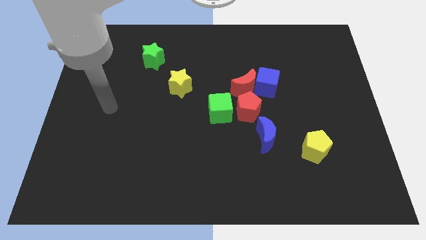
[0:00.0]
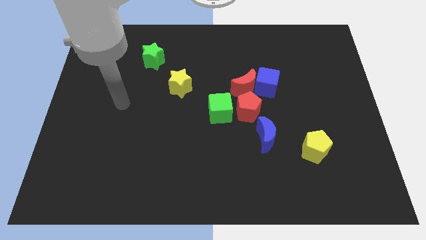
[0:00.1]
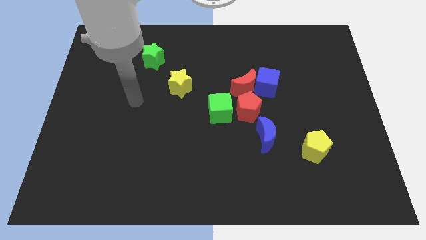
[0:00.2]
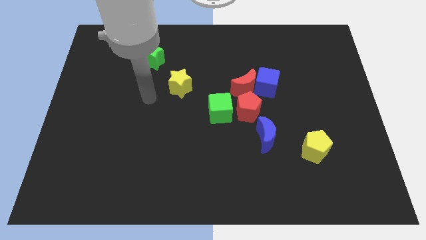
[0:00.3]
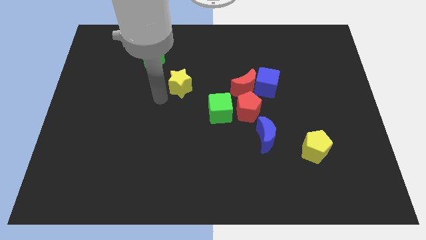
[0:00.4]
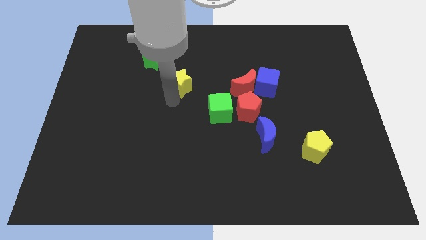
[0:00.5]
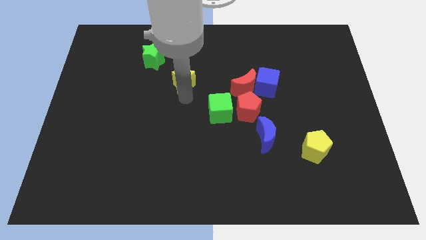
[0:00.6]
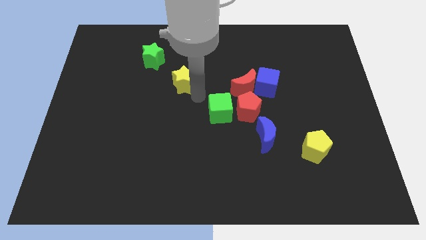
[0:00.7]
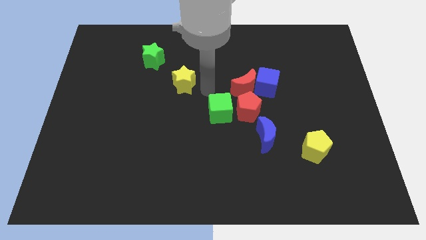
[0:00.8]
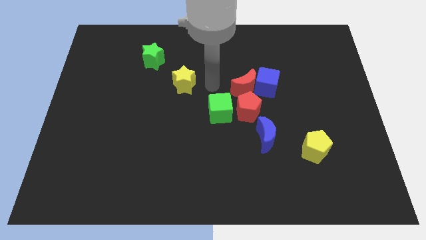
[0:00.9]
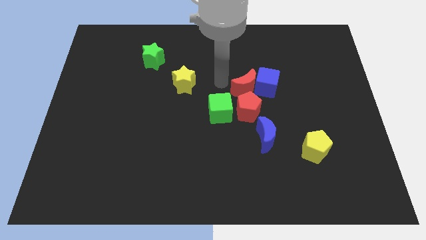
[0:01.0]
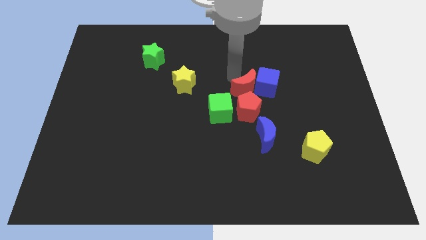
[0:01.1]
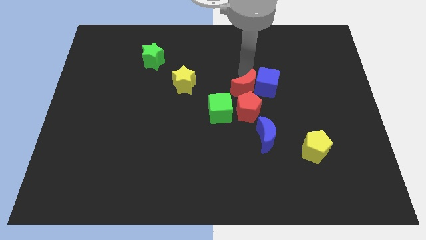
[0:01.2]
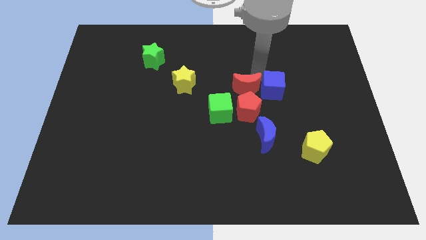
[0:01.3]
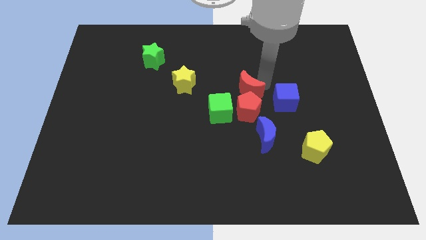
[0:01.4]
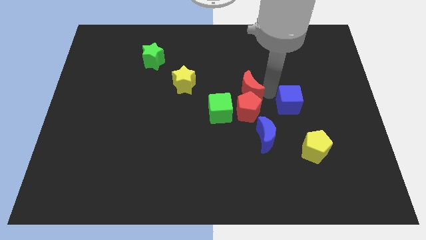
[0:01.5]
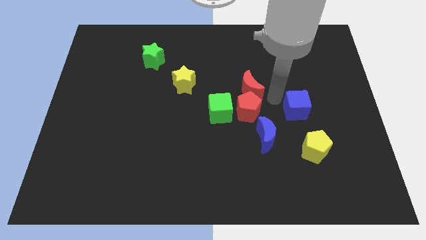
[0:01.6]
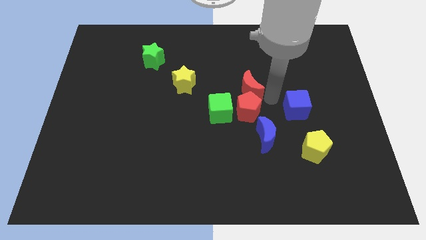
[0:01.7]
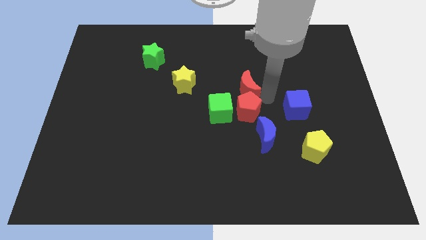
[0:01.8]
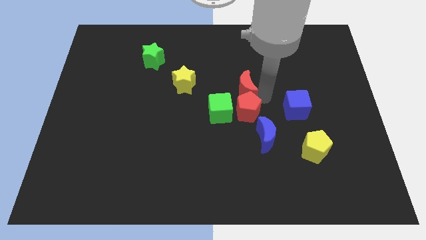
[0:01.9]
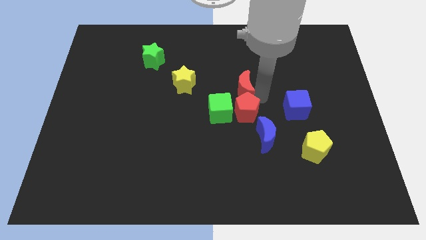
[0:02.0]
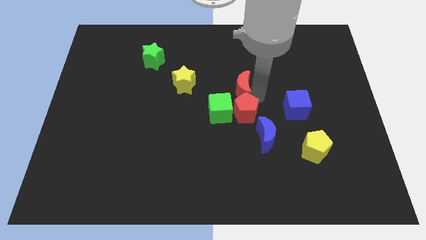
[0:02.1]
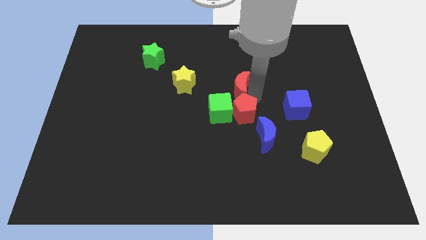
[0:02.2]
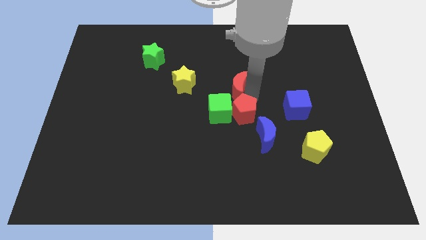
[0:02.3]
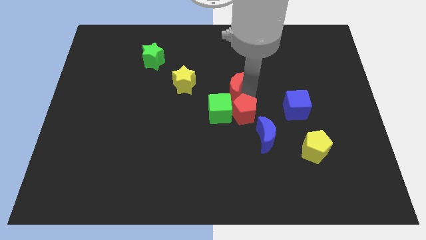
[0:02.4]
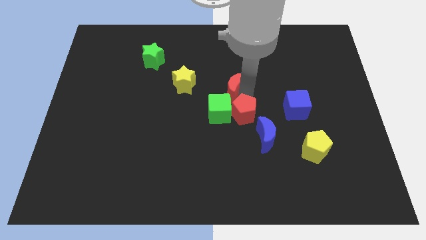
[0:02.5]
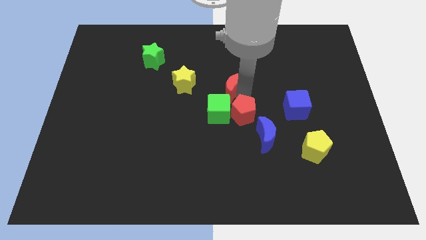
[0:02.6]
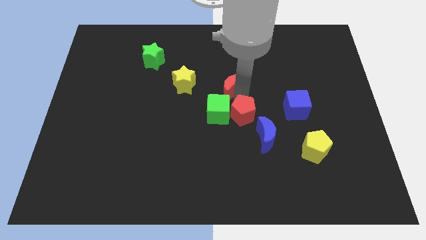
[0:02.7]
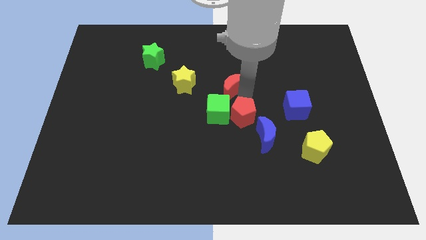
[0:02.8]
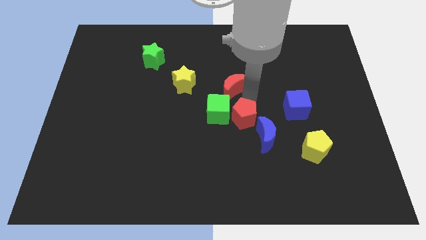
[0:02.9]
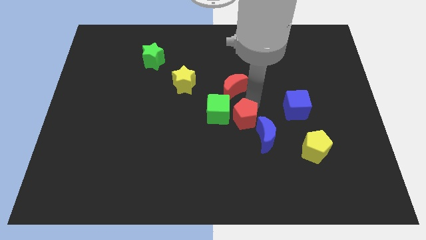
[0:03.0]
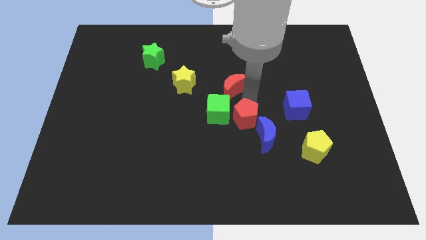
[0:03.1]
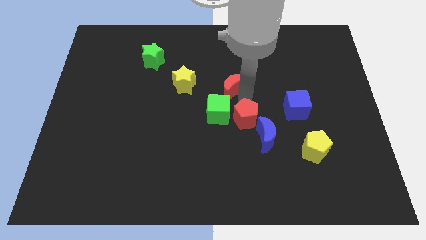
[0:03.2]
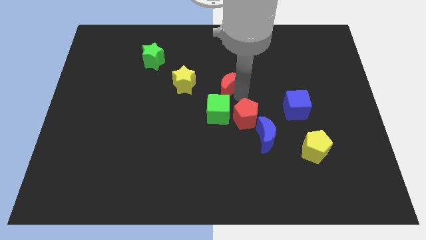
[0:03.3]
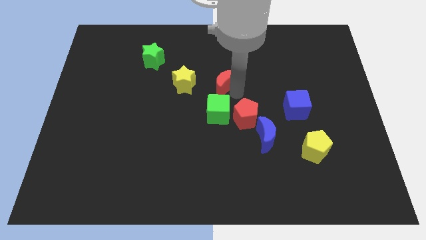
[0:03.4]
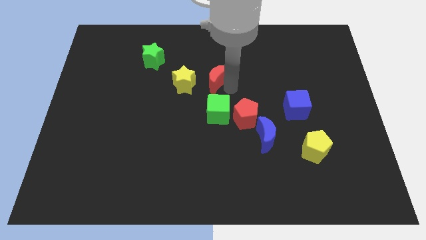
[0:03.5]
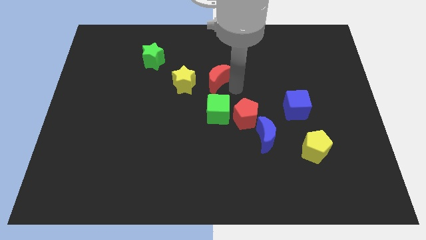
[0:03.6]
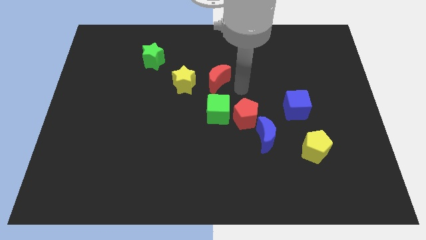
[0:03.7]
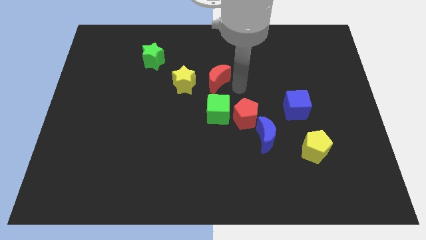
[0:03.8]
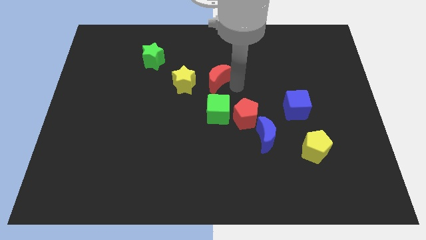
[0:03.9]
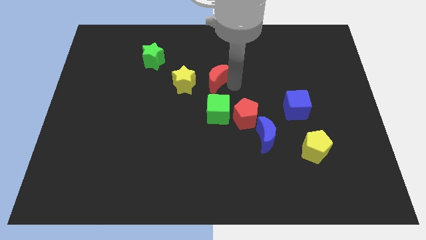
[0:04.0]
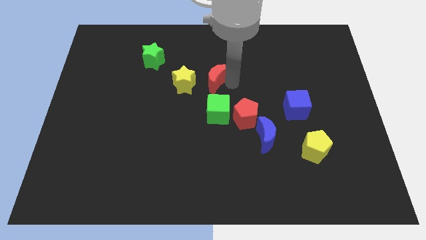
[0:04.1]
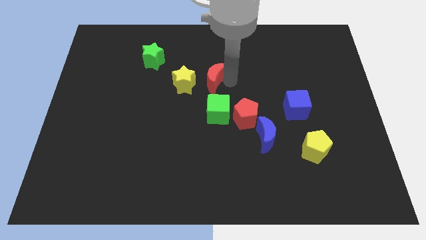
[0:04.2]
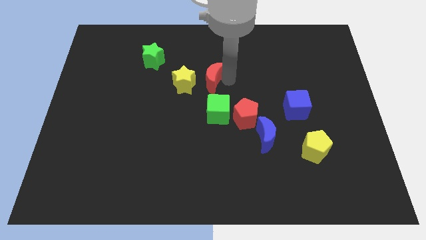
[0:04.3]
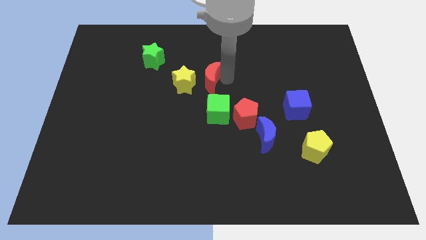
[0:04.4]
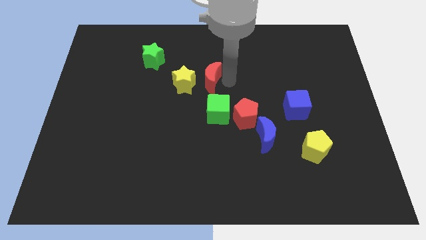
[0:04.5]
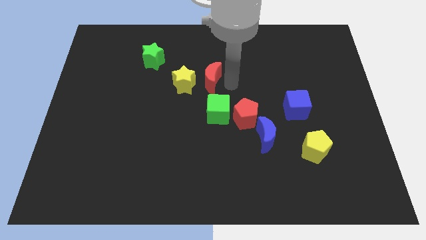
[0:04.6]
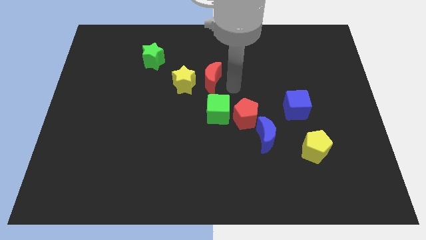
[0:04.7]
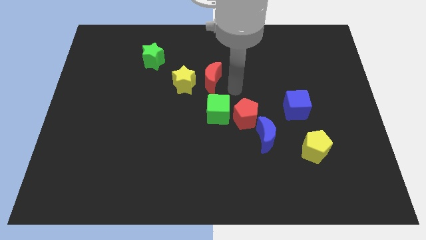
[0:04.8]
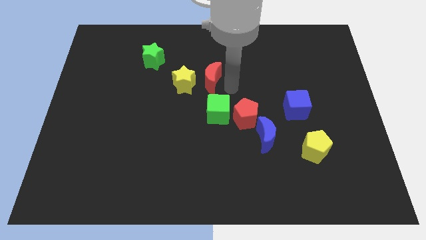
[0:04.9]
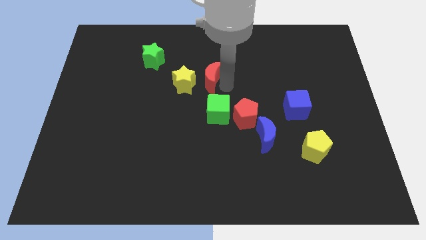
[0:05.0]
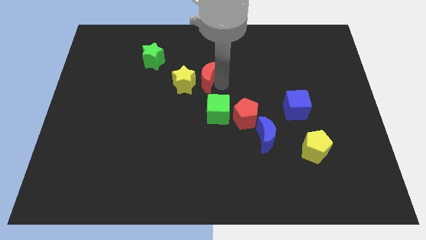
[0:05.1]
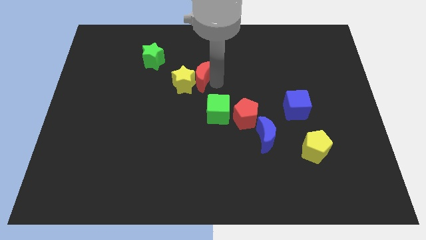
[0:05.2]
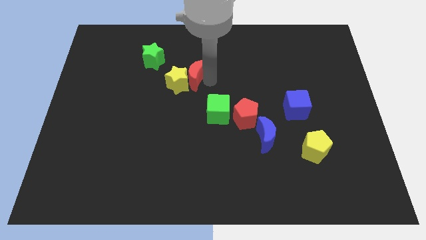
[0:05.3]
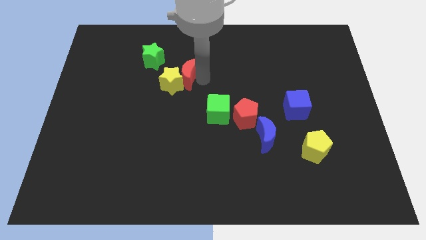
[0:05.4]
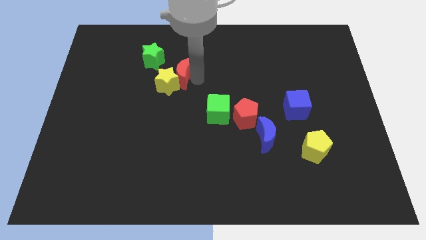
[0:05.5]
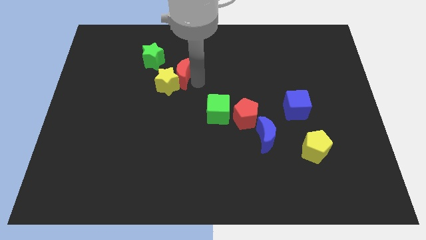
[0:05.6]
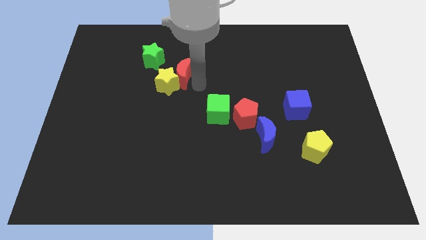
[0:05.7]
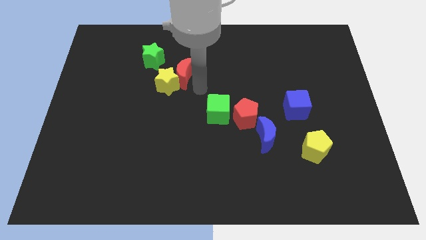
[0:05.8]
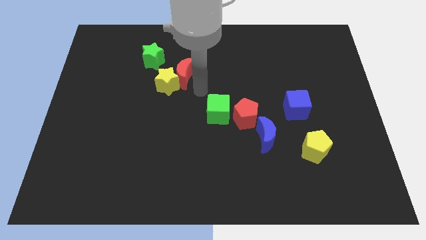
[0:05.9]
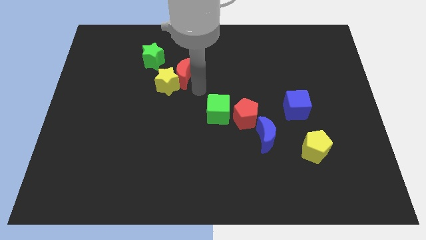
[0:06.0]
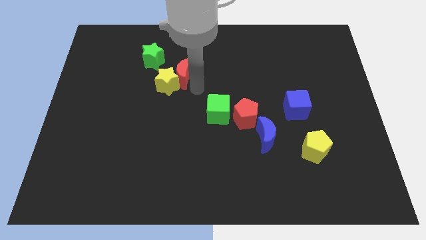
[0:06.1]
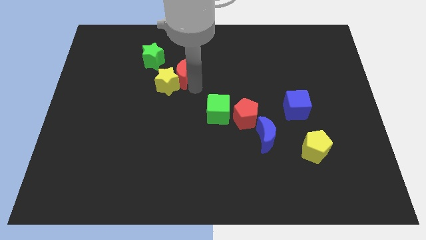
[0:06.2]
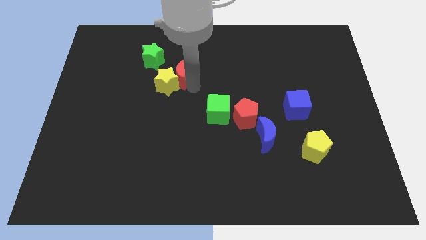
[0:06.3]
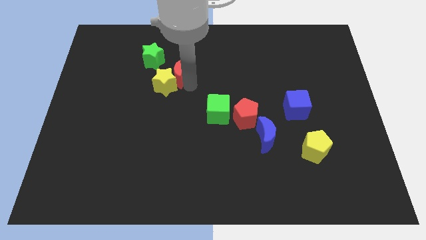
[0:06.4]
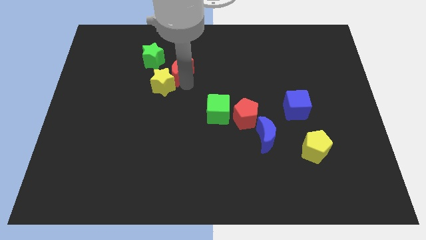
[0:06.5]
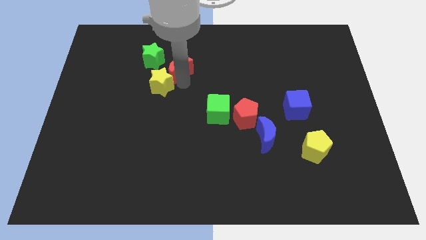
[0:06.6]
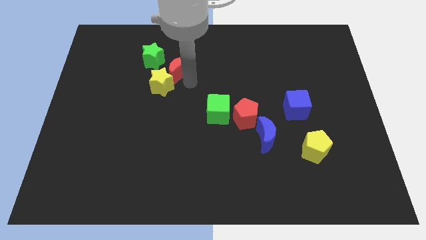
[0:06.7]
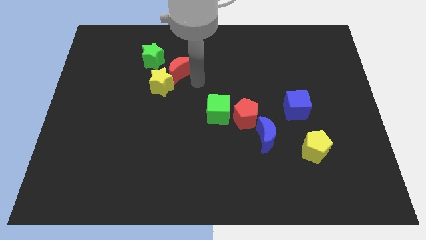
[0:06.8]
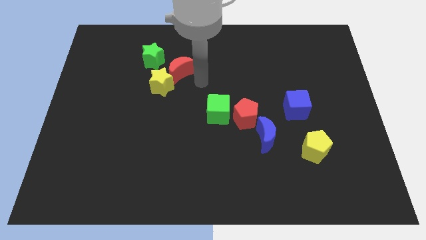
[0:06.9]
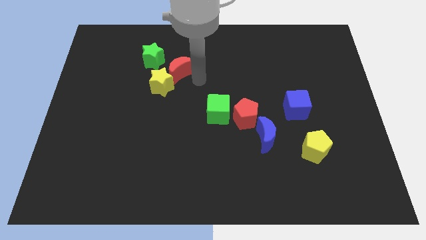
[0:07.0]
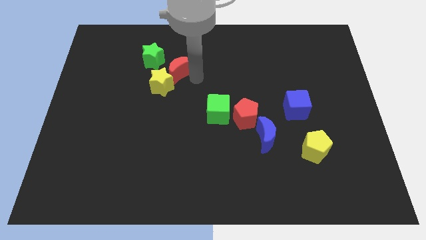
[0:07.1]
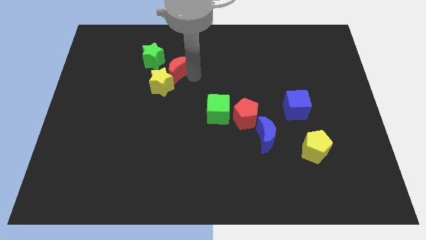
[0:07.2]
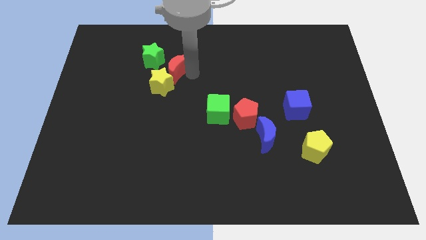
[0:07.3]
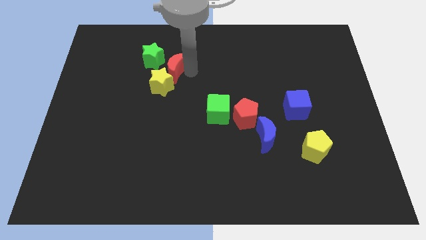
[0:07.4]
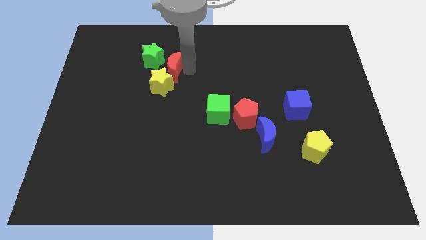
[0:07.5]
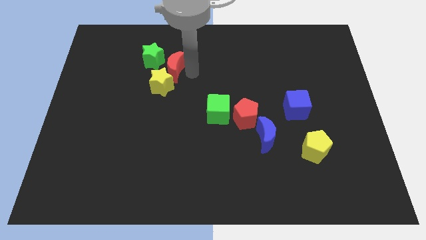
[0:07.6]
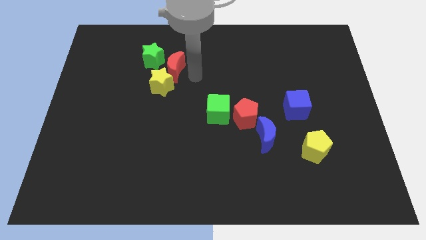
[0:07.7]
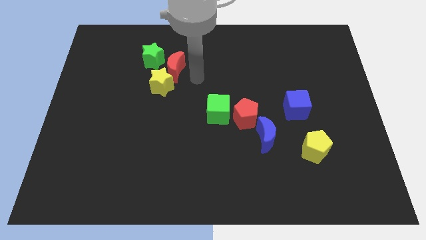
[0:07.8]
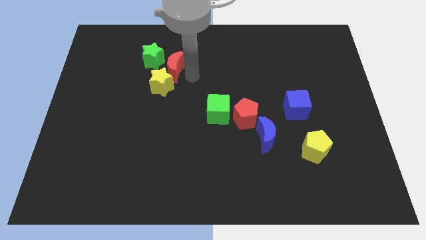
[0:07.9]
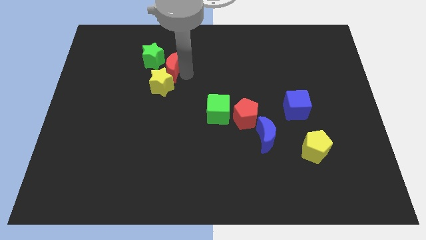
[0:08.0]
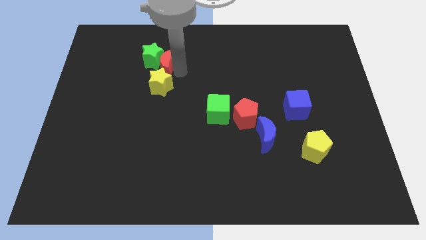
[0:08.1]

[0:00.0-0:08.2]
put the red moon to the green star
